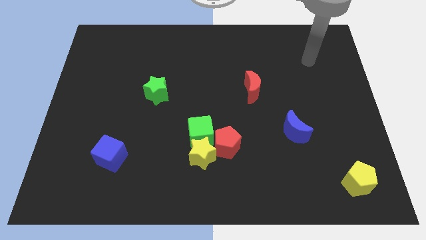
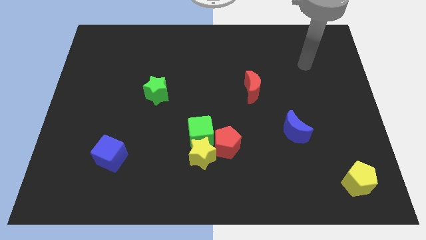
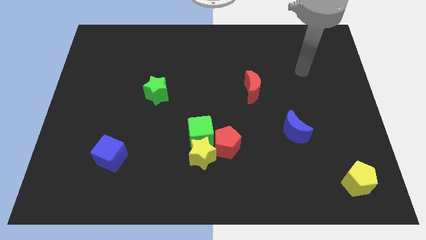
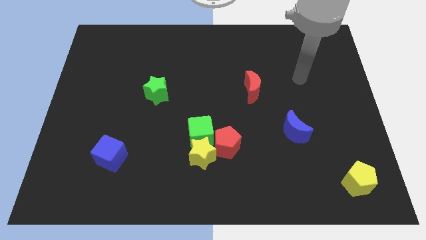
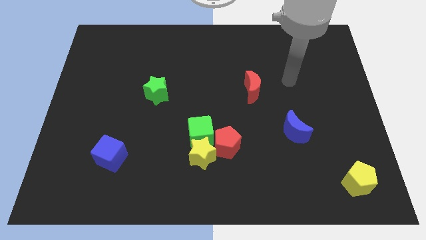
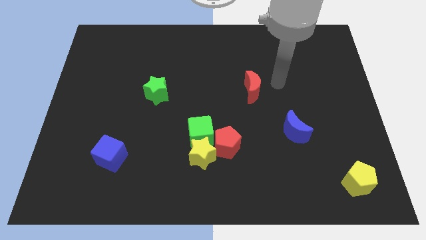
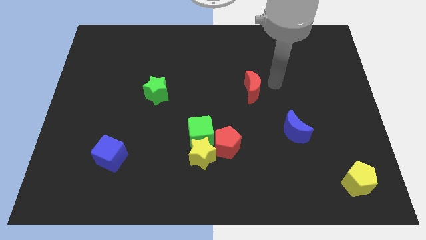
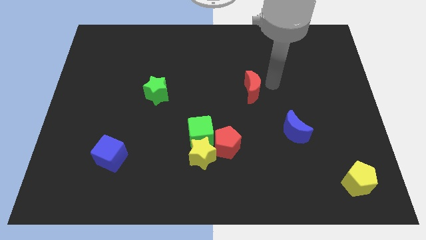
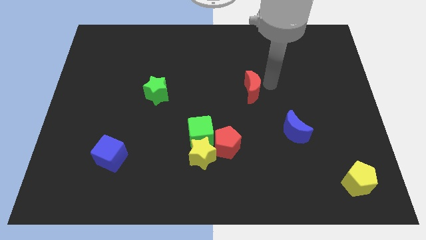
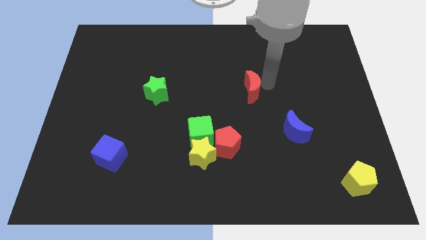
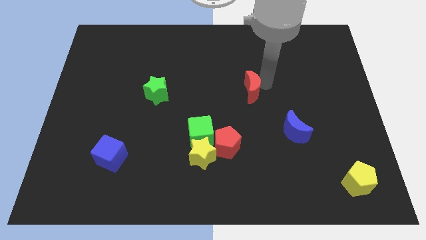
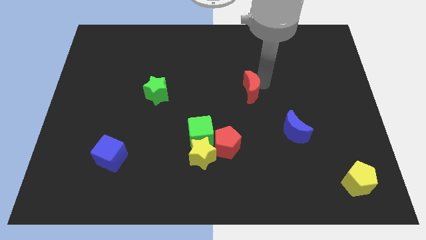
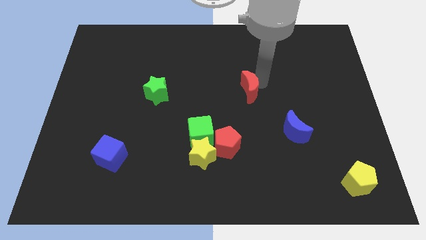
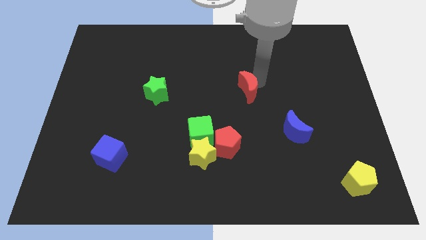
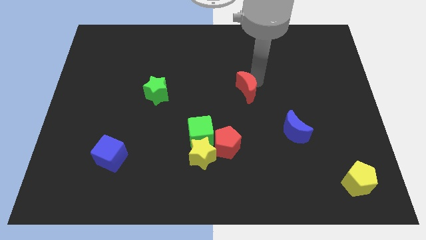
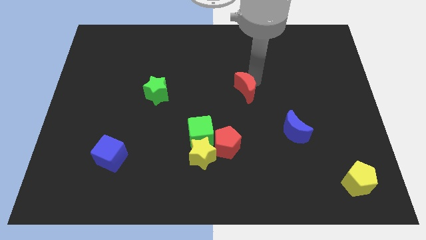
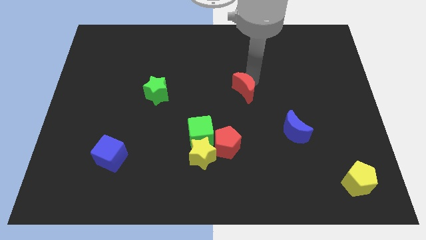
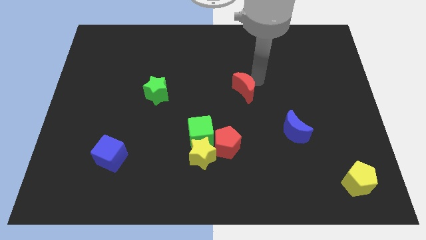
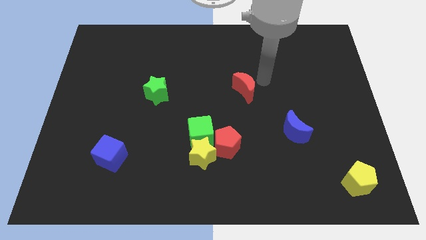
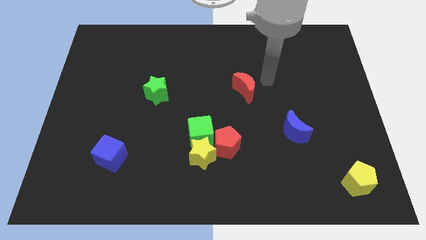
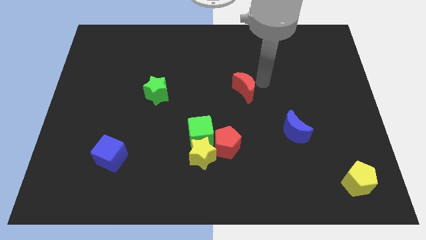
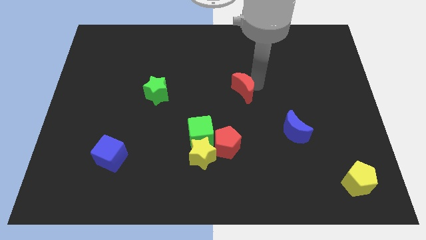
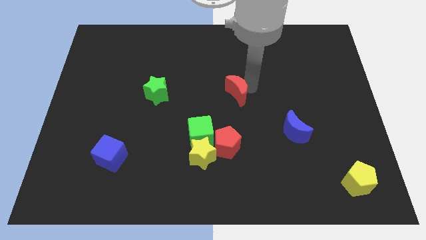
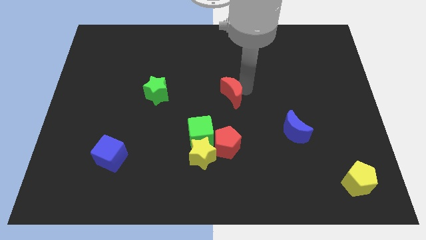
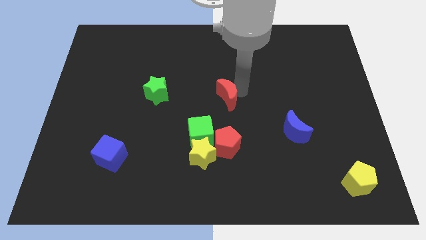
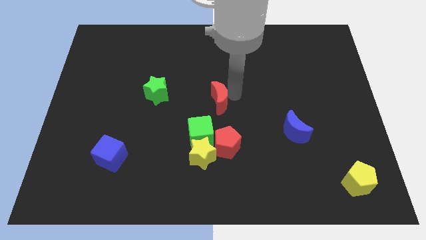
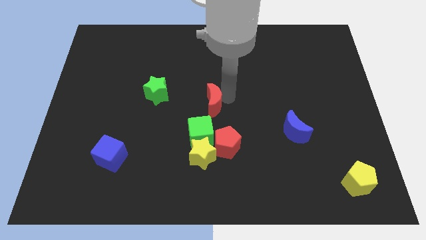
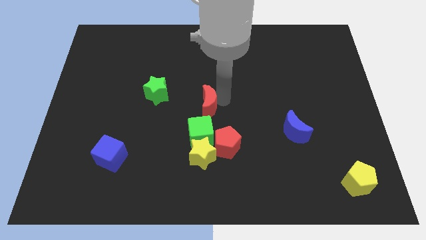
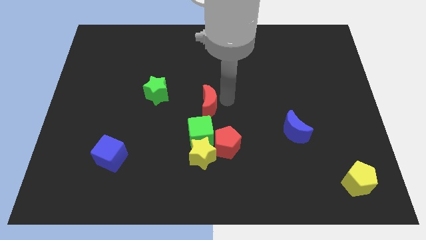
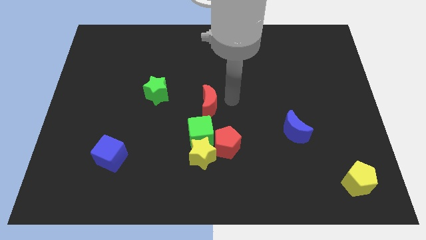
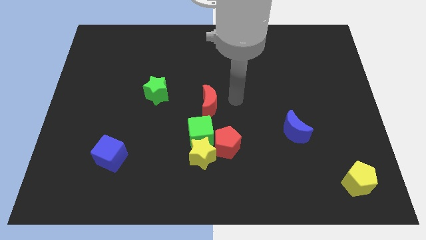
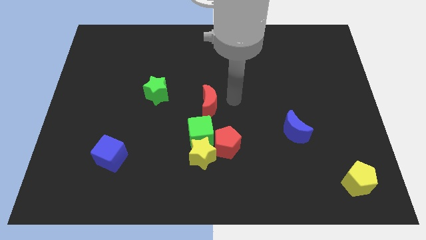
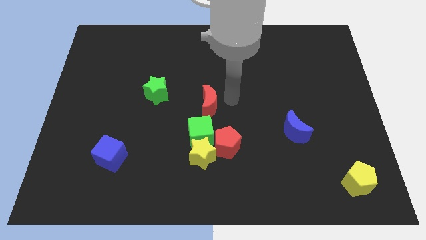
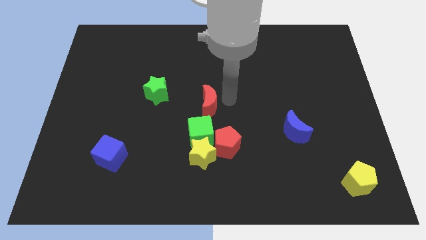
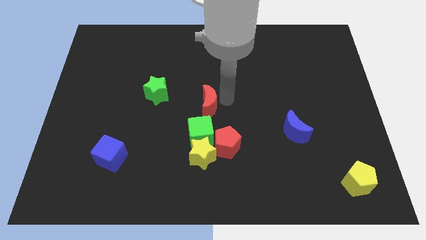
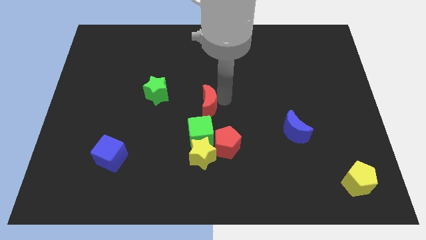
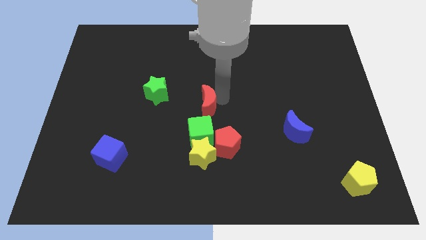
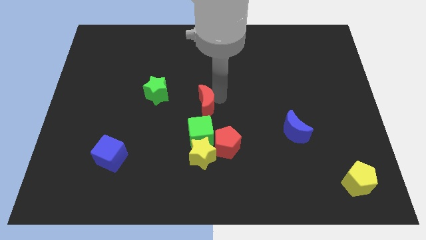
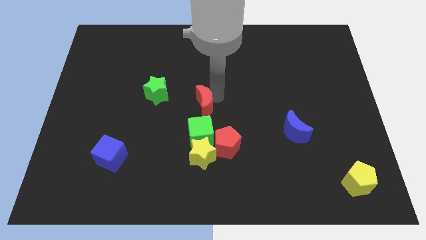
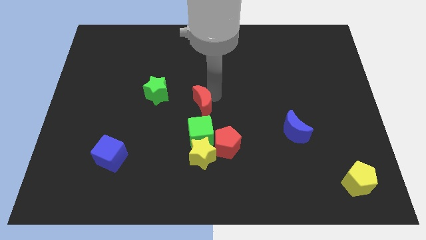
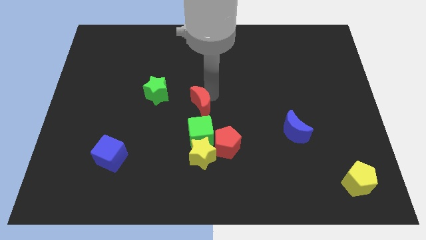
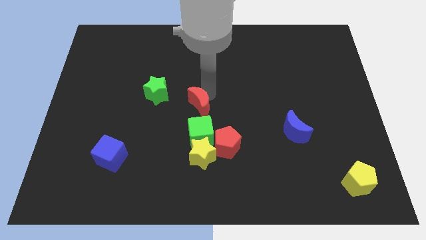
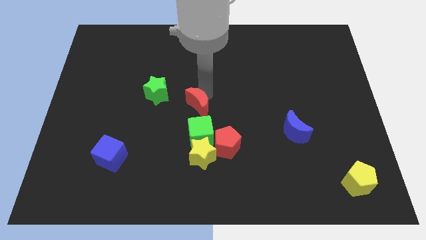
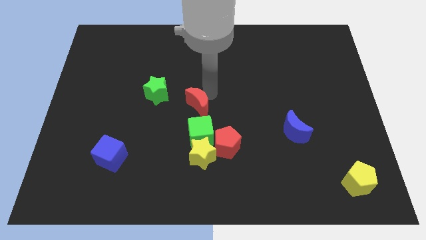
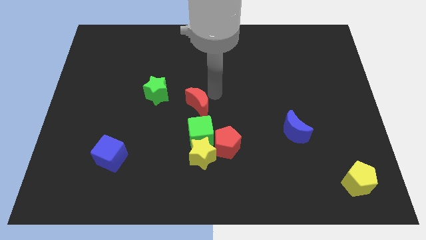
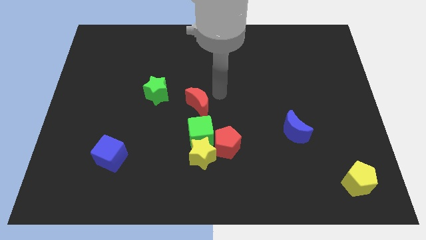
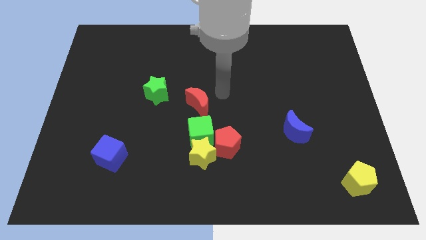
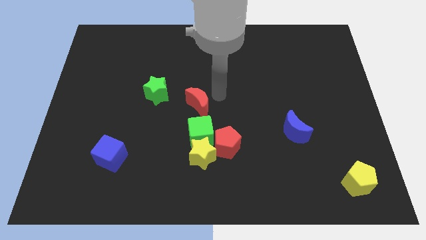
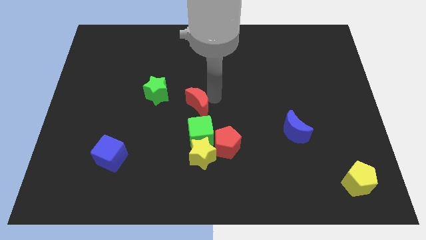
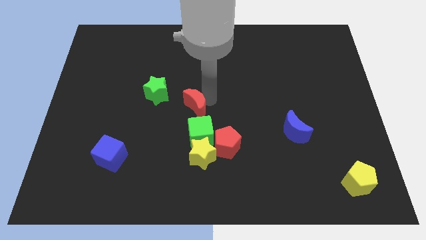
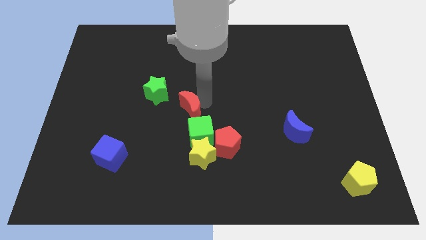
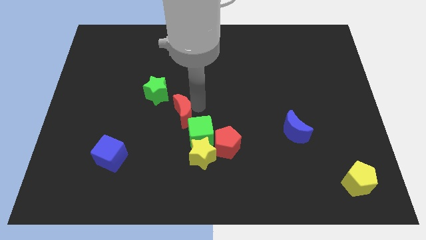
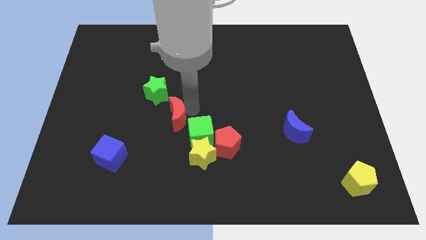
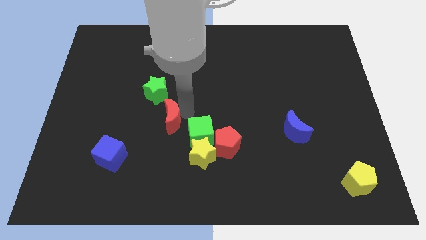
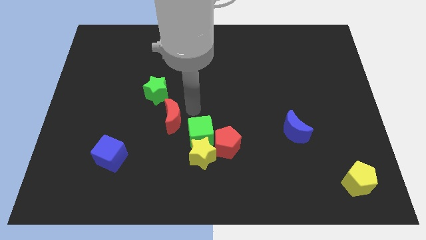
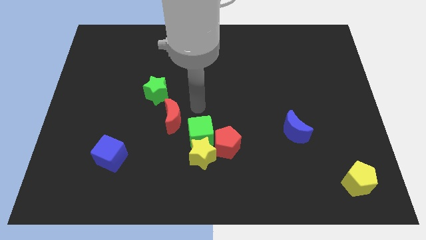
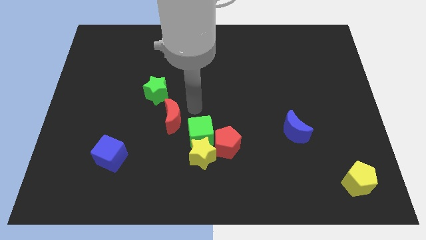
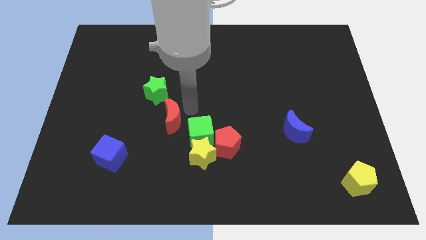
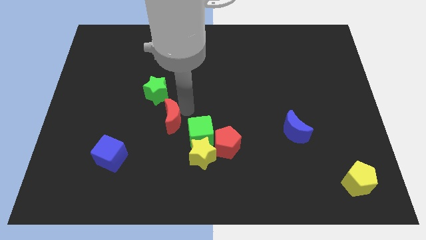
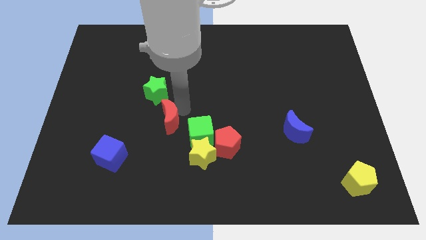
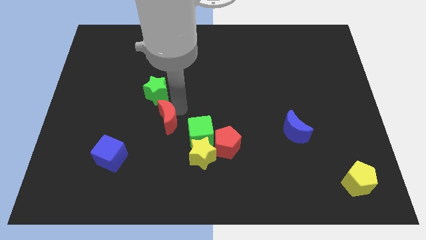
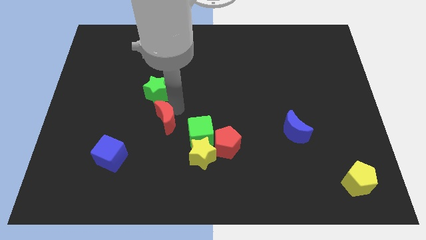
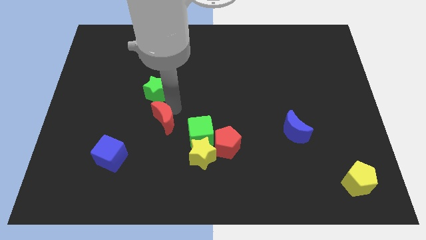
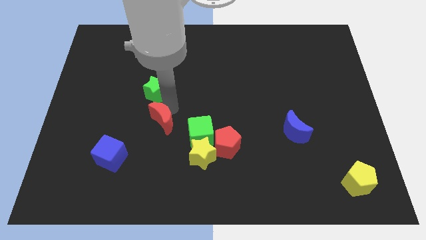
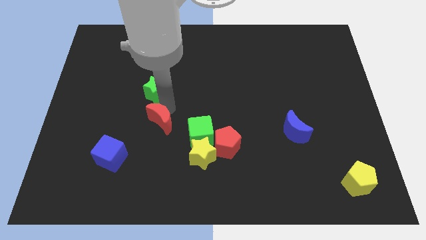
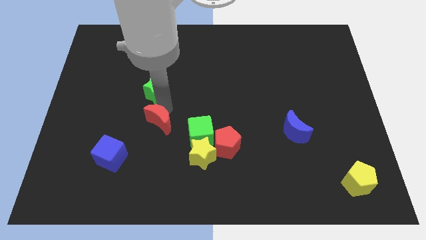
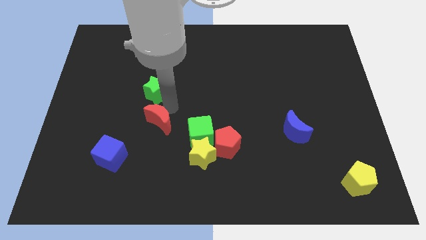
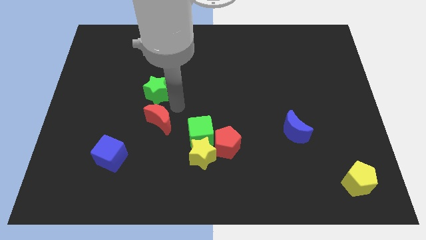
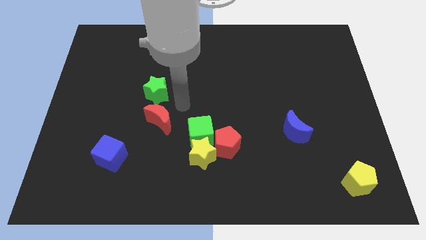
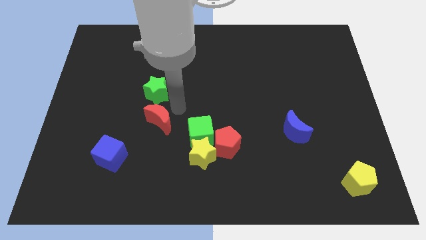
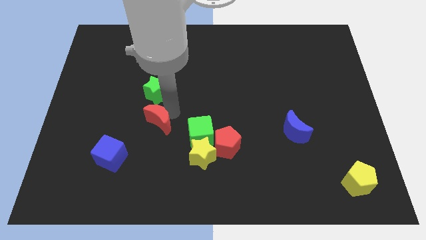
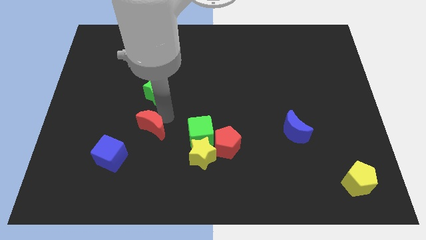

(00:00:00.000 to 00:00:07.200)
put the red moon diagonally up and to the right of the blue cube
